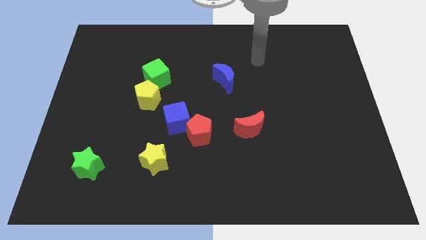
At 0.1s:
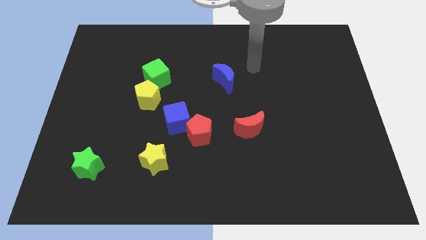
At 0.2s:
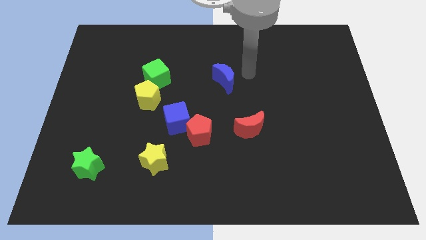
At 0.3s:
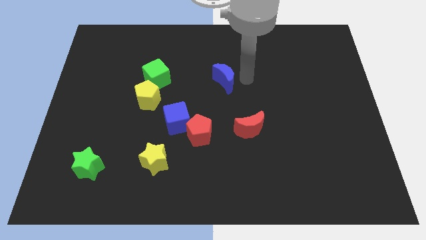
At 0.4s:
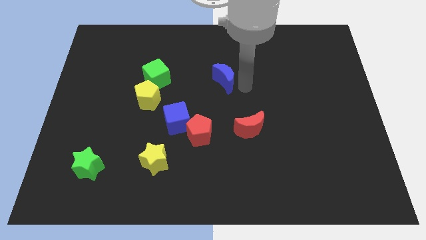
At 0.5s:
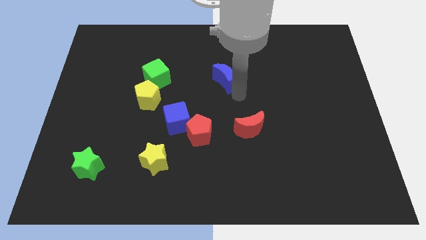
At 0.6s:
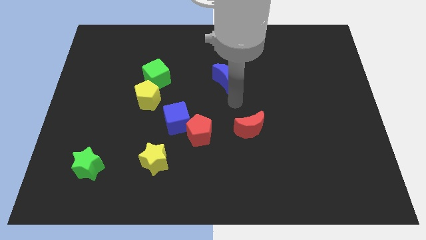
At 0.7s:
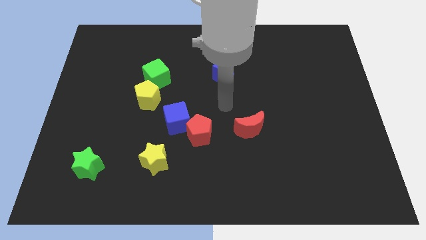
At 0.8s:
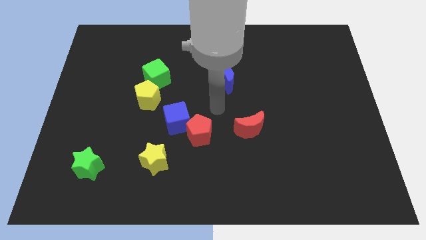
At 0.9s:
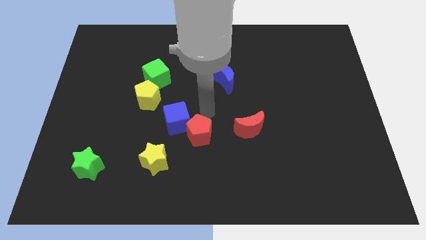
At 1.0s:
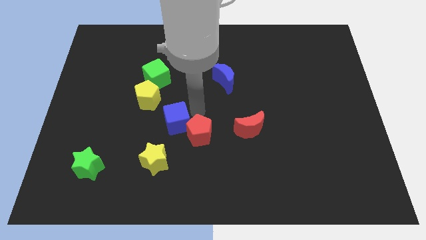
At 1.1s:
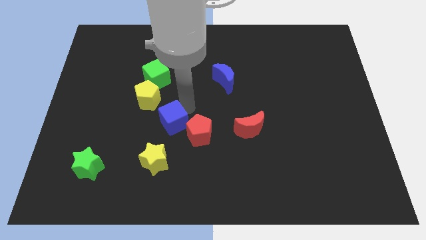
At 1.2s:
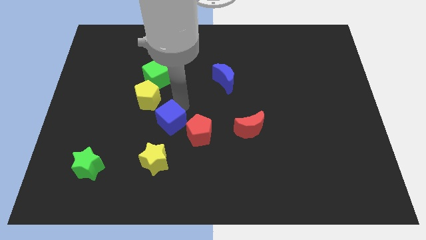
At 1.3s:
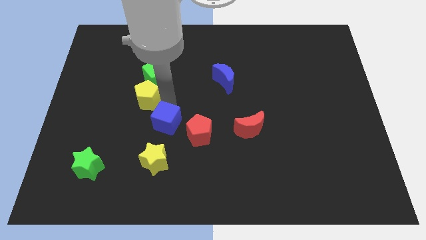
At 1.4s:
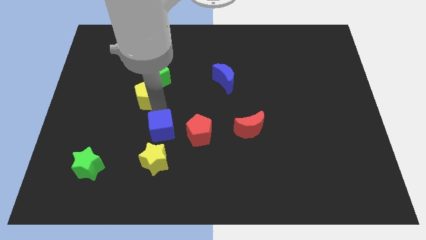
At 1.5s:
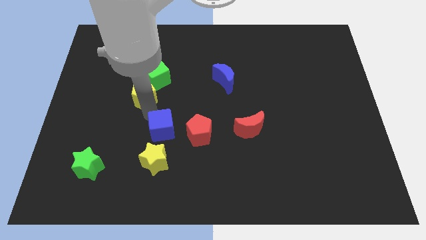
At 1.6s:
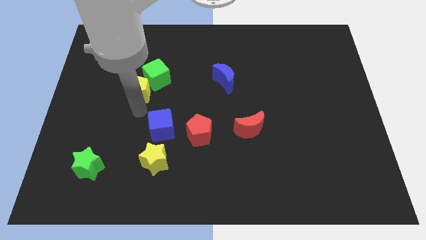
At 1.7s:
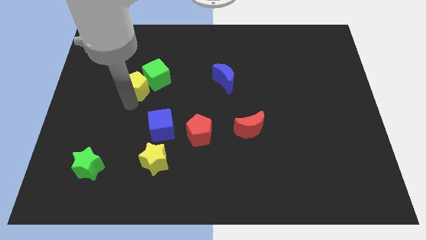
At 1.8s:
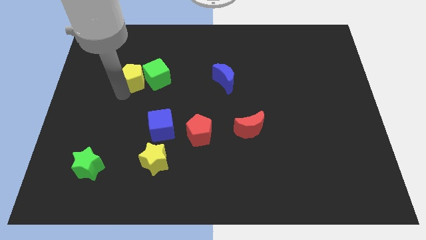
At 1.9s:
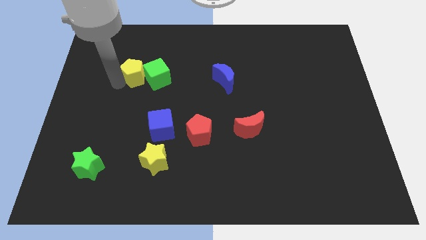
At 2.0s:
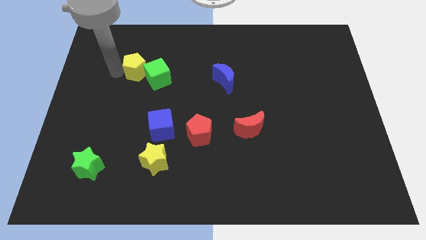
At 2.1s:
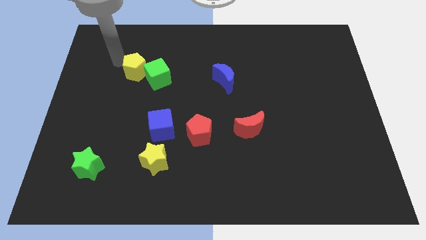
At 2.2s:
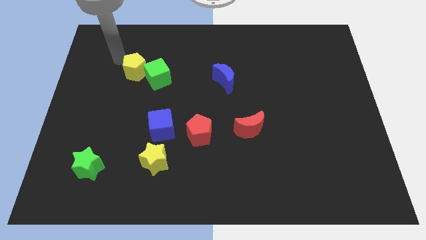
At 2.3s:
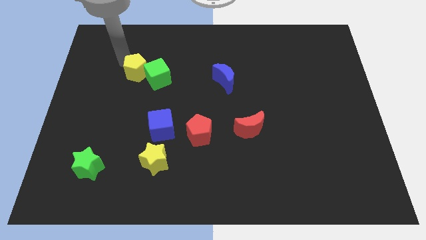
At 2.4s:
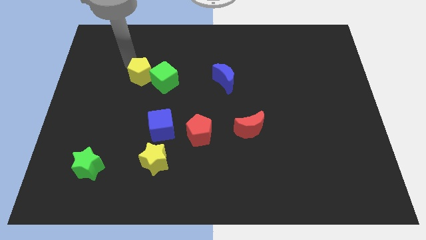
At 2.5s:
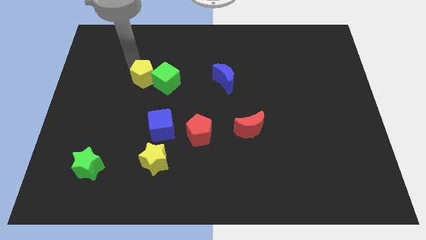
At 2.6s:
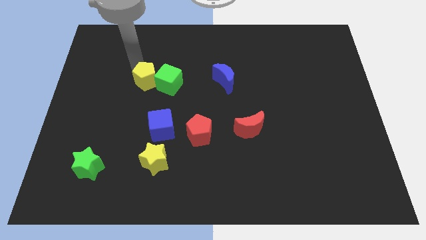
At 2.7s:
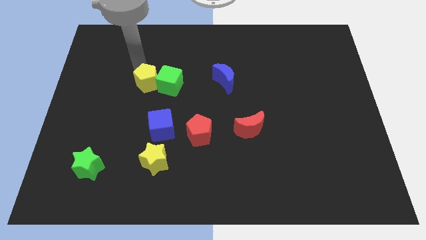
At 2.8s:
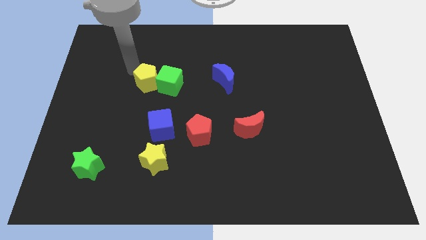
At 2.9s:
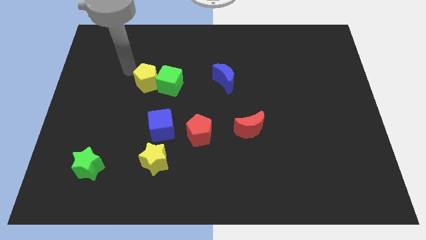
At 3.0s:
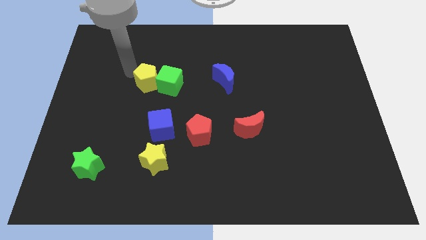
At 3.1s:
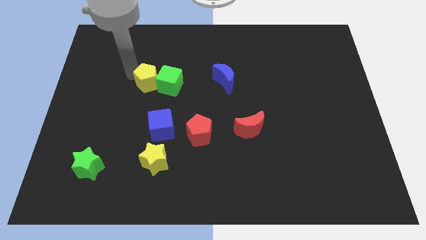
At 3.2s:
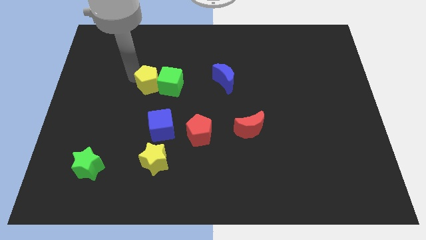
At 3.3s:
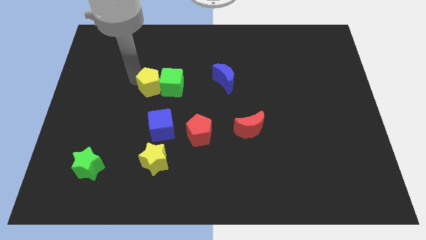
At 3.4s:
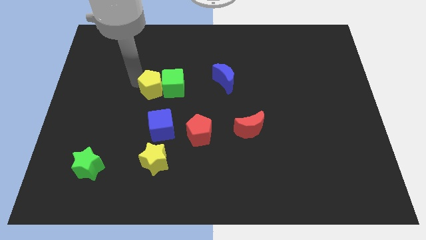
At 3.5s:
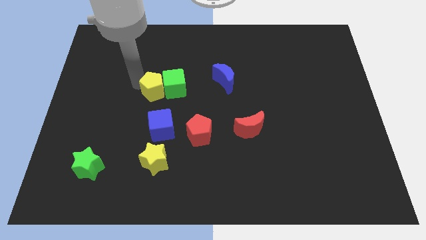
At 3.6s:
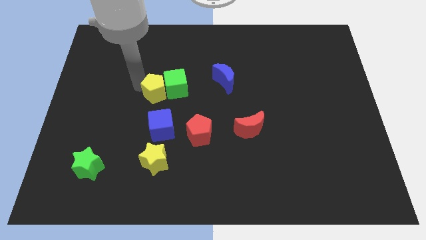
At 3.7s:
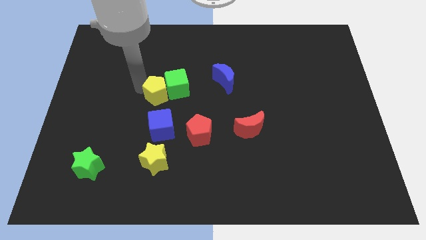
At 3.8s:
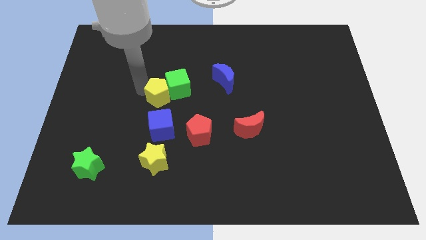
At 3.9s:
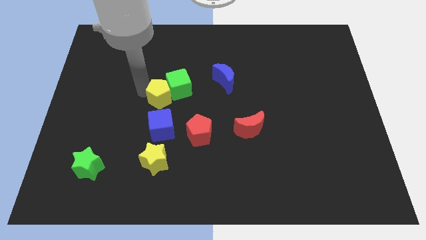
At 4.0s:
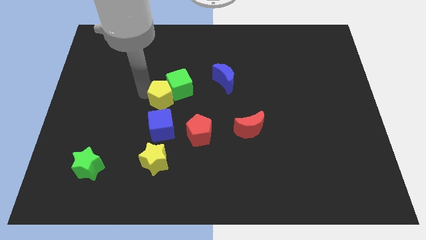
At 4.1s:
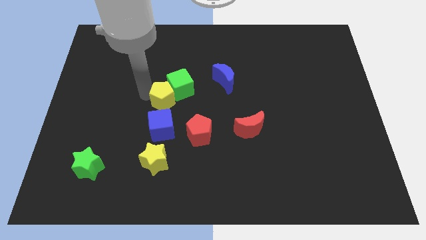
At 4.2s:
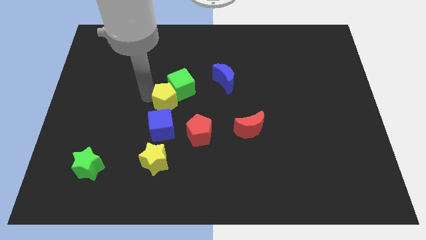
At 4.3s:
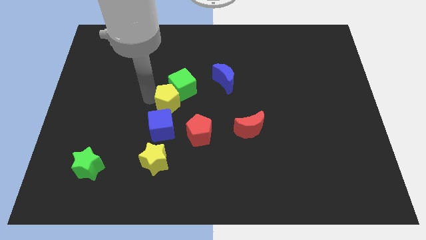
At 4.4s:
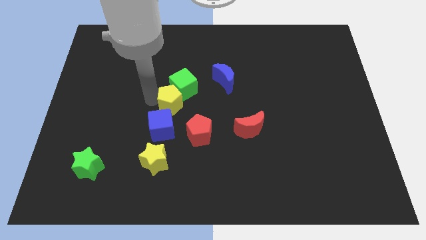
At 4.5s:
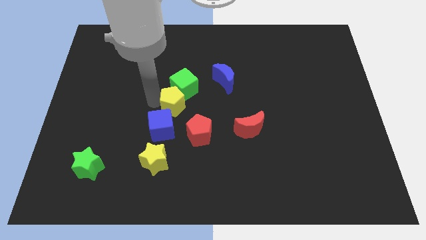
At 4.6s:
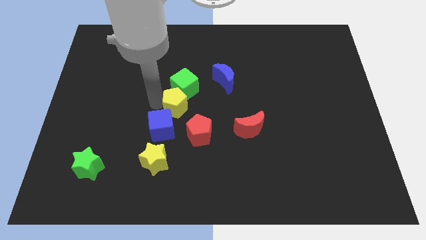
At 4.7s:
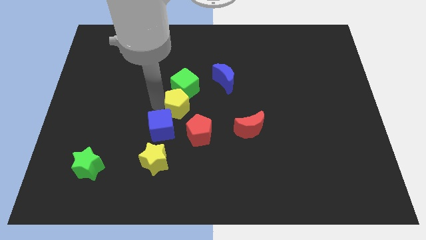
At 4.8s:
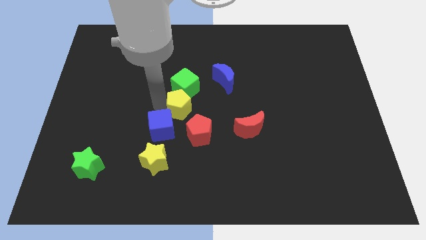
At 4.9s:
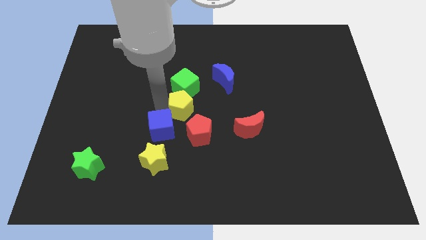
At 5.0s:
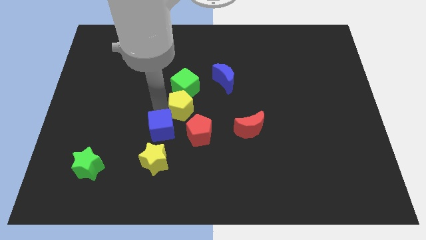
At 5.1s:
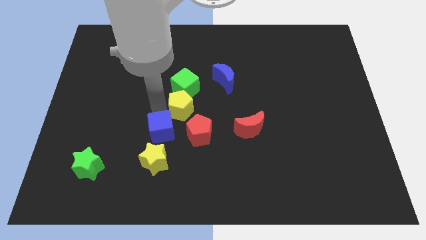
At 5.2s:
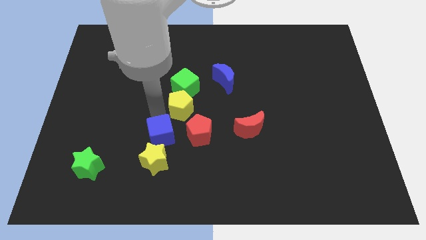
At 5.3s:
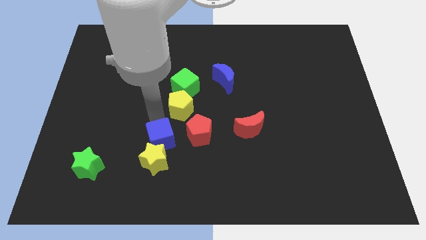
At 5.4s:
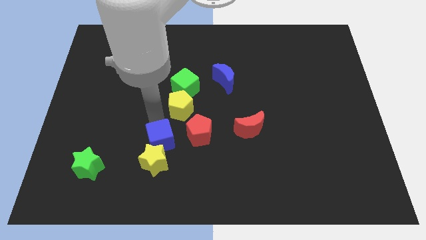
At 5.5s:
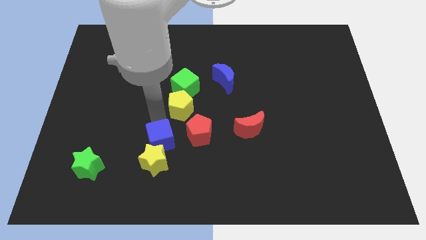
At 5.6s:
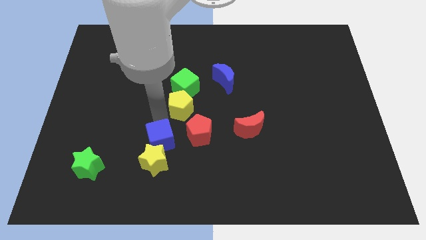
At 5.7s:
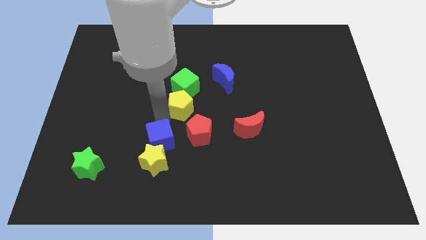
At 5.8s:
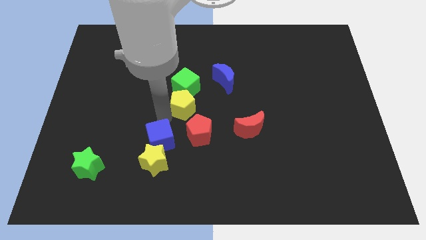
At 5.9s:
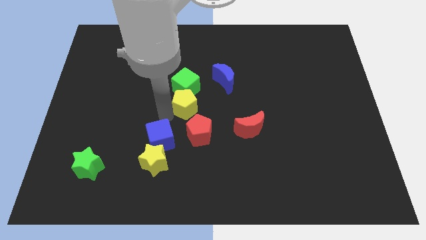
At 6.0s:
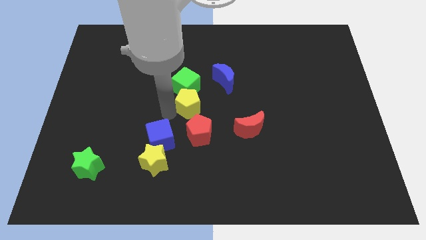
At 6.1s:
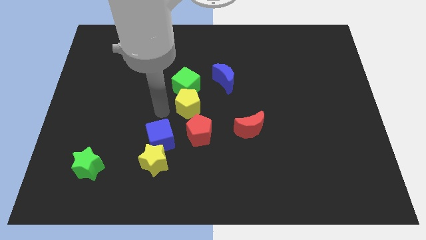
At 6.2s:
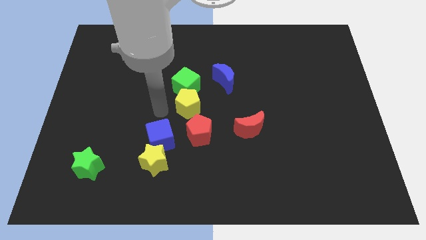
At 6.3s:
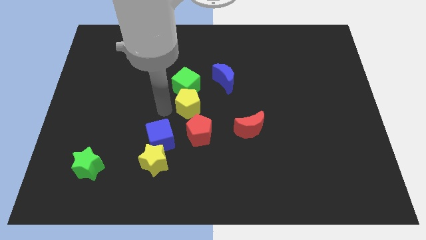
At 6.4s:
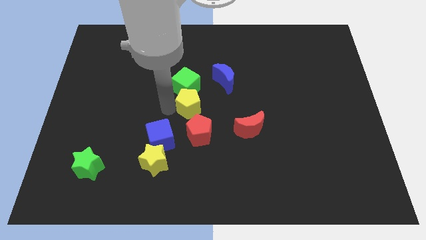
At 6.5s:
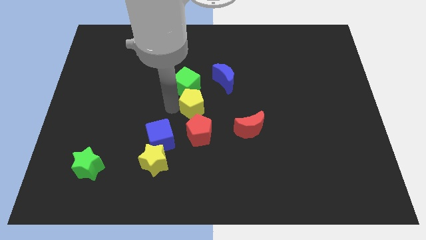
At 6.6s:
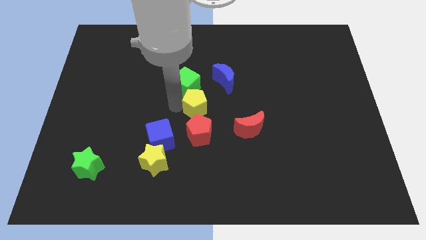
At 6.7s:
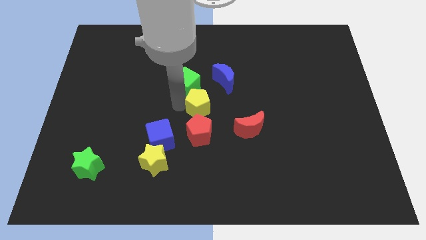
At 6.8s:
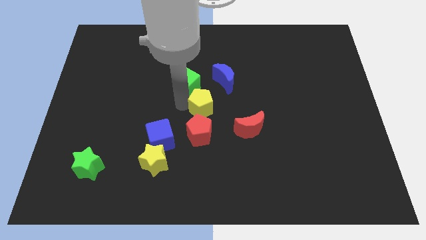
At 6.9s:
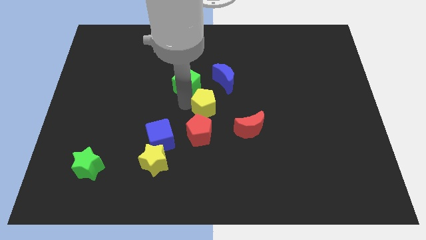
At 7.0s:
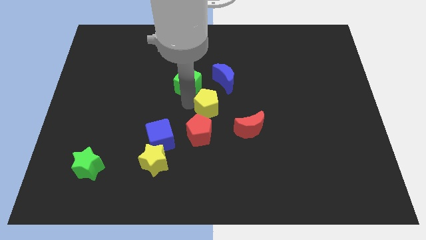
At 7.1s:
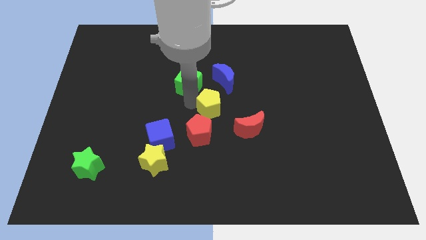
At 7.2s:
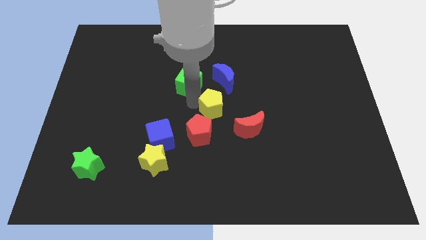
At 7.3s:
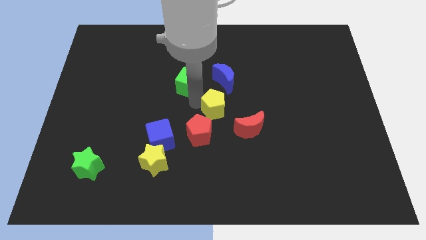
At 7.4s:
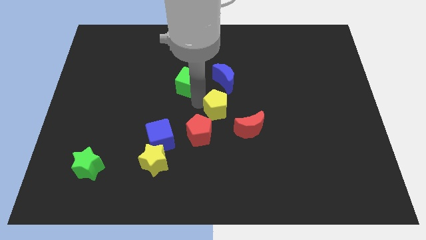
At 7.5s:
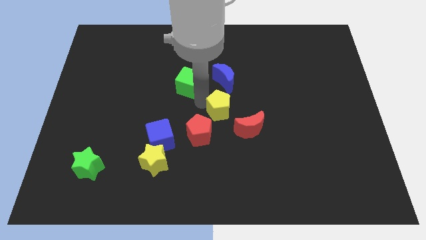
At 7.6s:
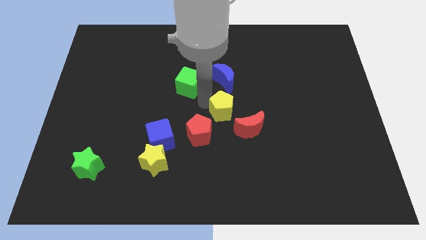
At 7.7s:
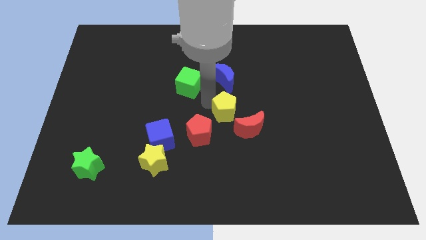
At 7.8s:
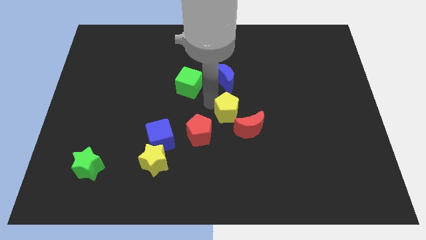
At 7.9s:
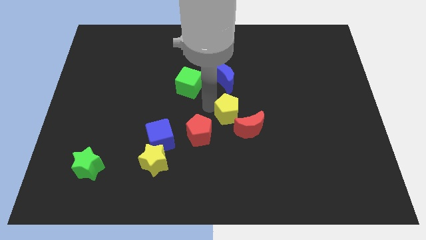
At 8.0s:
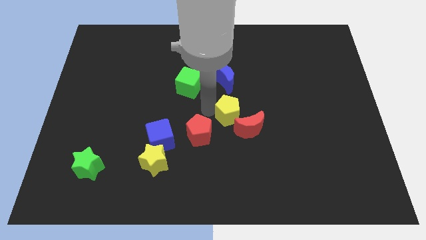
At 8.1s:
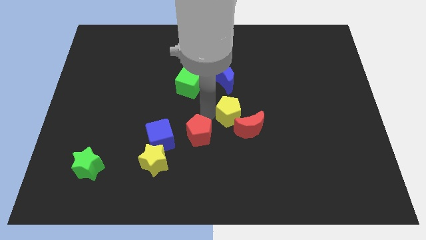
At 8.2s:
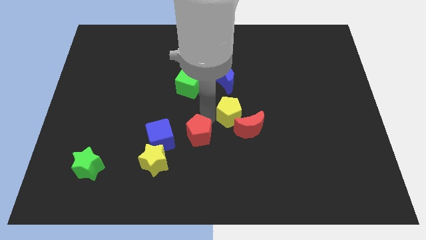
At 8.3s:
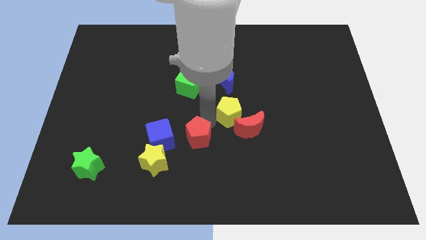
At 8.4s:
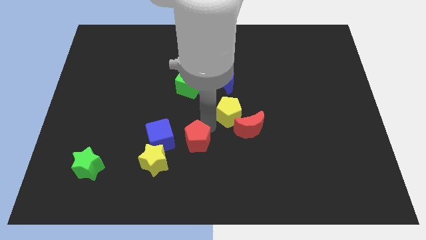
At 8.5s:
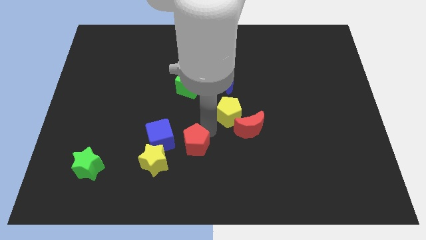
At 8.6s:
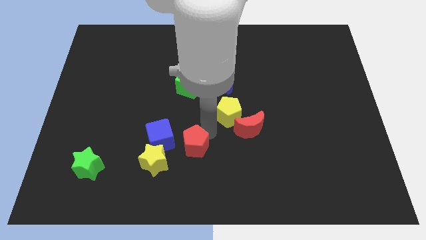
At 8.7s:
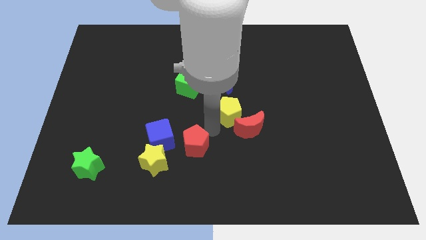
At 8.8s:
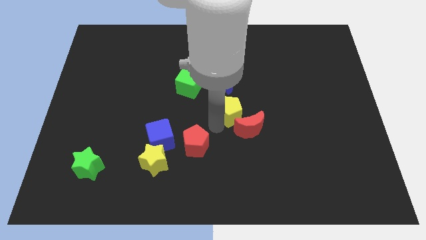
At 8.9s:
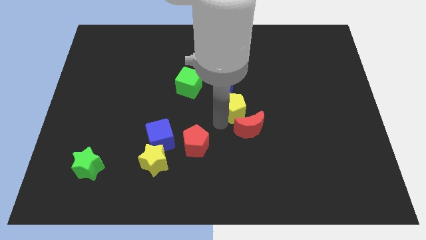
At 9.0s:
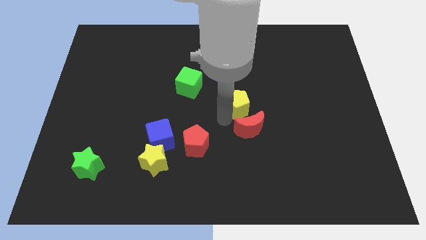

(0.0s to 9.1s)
slide the yellow pentagon to the right
